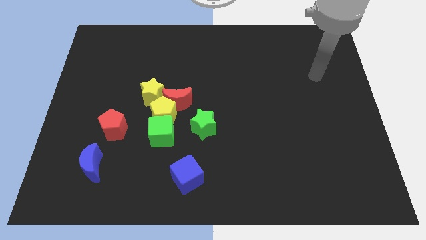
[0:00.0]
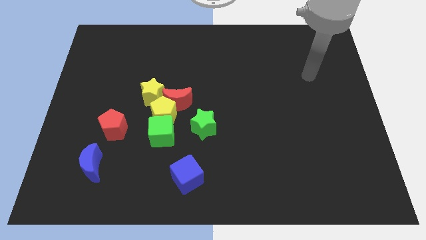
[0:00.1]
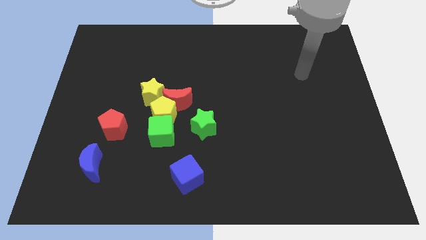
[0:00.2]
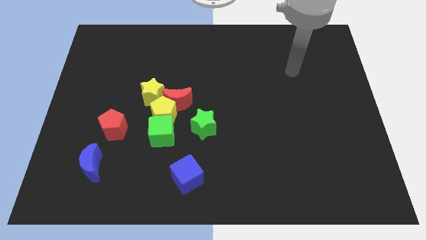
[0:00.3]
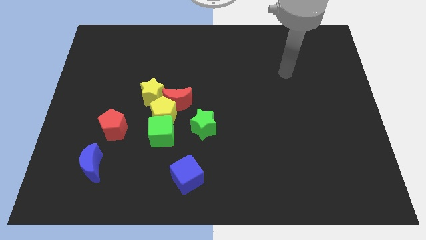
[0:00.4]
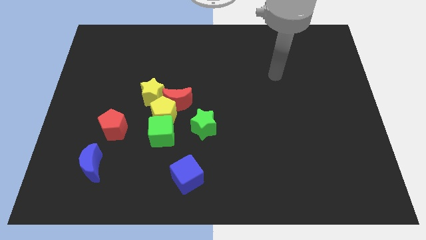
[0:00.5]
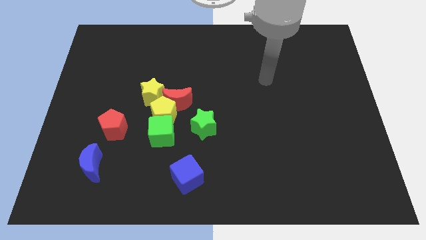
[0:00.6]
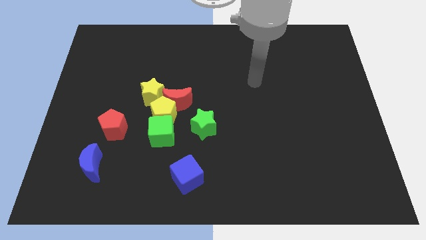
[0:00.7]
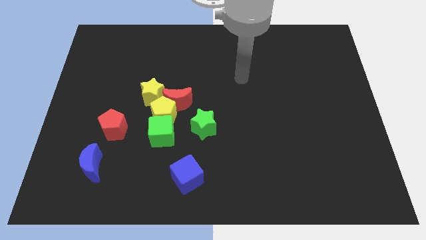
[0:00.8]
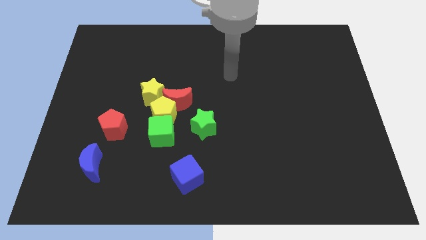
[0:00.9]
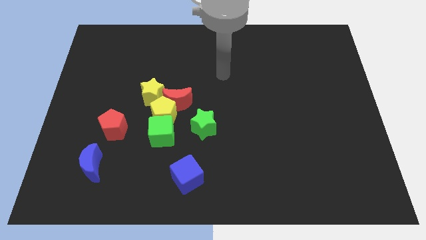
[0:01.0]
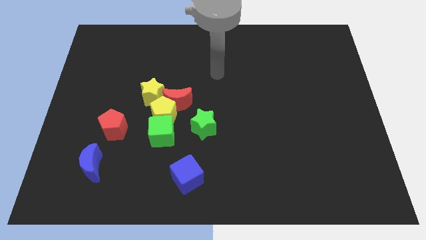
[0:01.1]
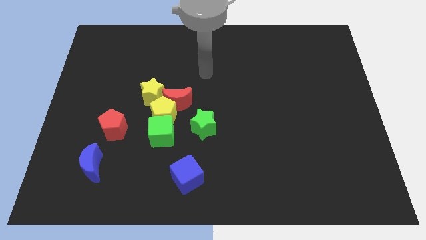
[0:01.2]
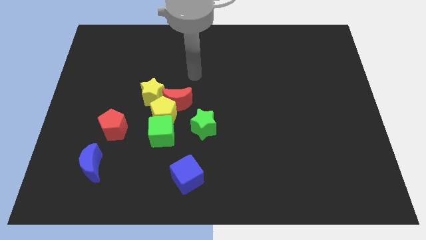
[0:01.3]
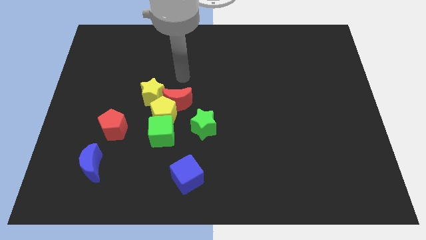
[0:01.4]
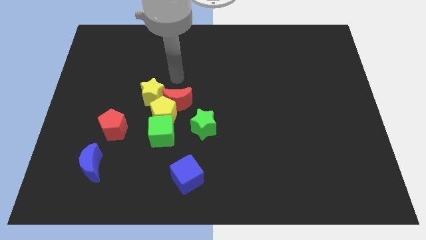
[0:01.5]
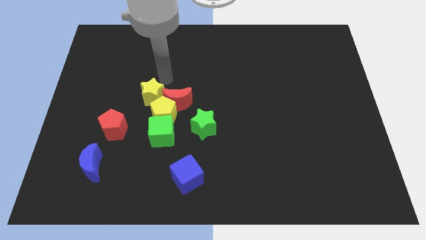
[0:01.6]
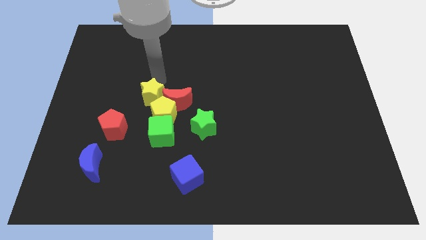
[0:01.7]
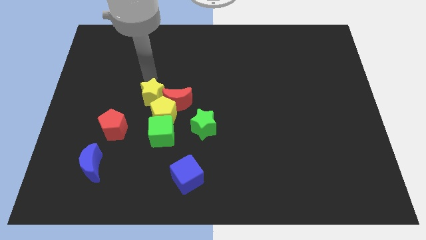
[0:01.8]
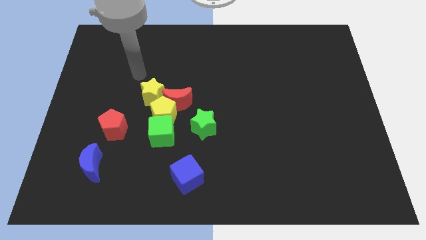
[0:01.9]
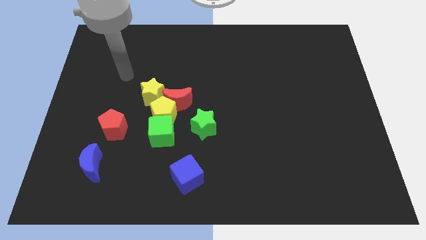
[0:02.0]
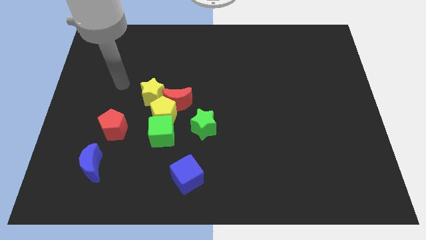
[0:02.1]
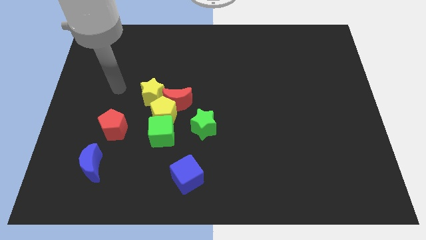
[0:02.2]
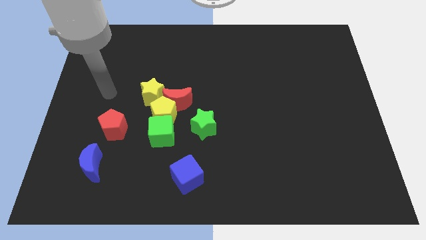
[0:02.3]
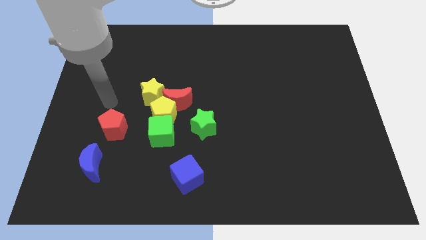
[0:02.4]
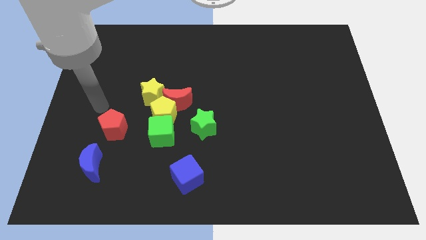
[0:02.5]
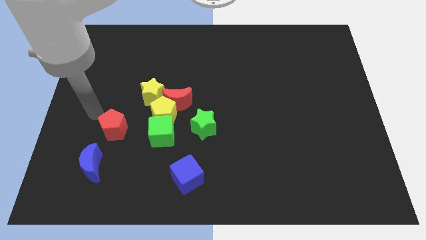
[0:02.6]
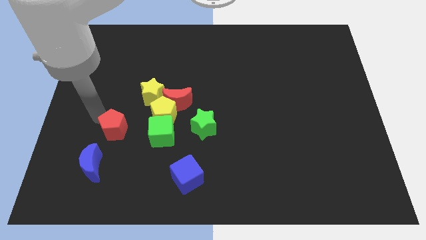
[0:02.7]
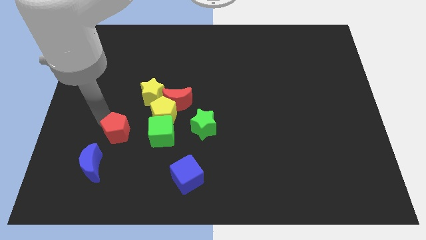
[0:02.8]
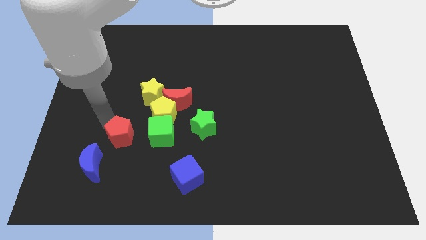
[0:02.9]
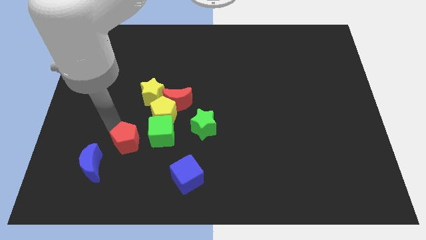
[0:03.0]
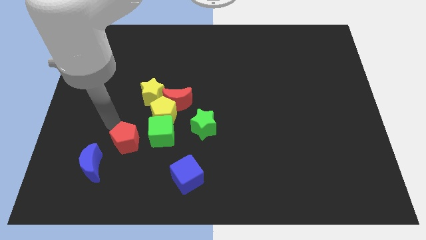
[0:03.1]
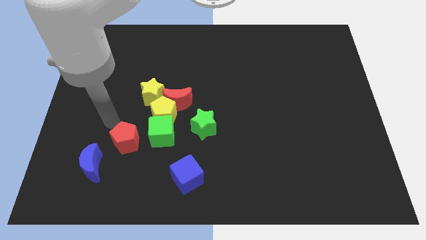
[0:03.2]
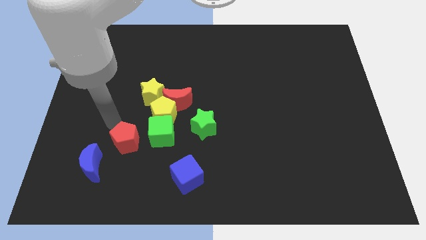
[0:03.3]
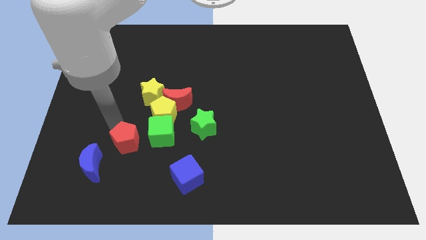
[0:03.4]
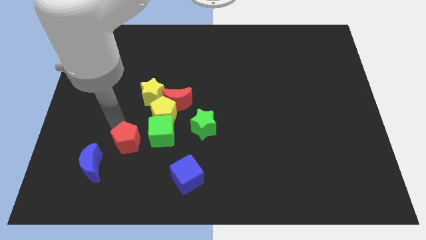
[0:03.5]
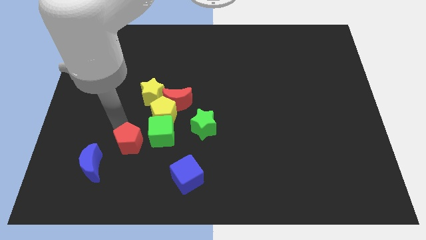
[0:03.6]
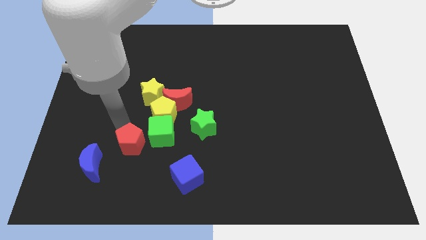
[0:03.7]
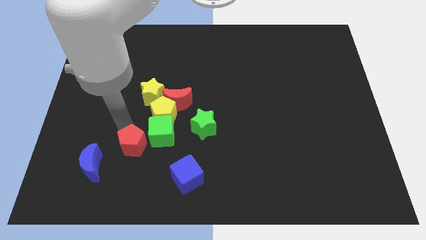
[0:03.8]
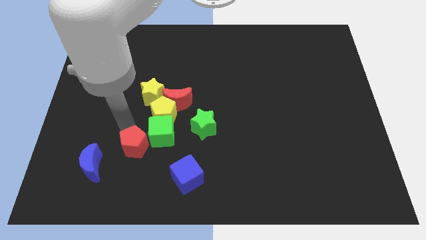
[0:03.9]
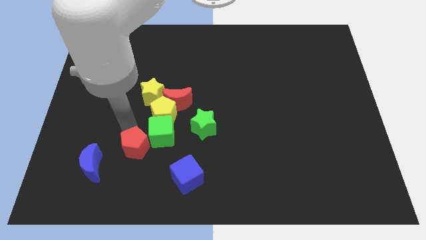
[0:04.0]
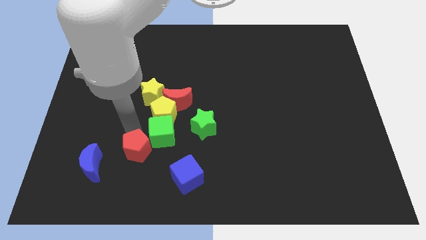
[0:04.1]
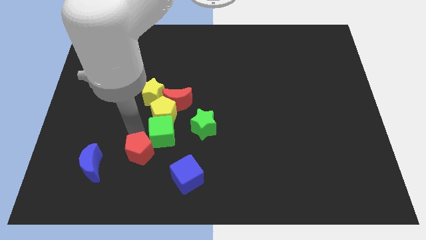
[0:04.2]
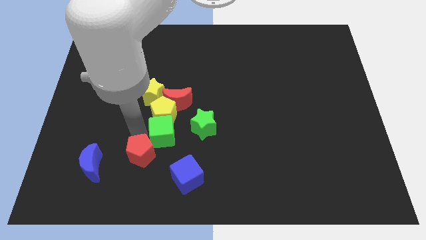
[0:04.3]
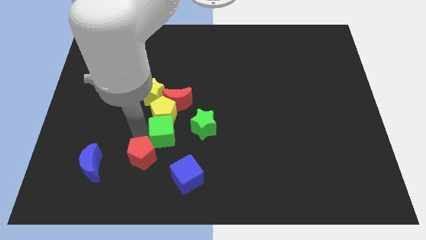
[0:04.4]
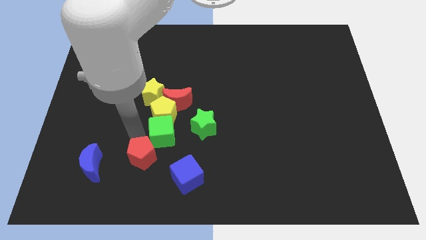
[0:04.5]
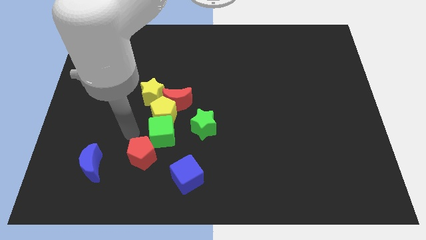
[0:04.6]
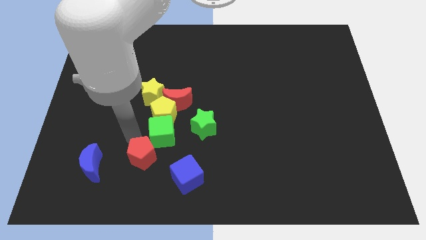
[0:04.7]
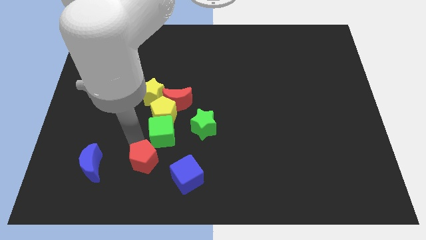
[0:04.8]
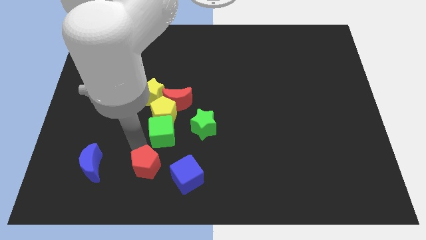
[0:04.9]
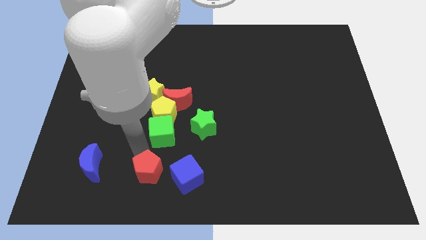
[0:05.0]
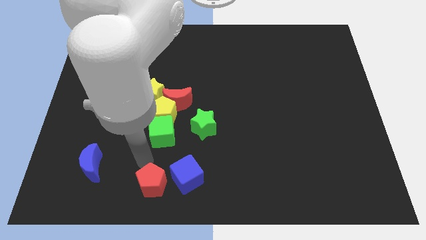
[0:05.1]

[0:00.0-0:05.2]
put the red pentagon to the bottom

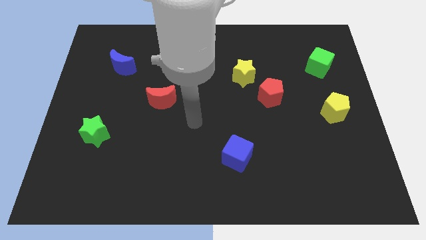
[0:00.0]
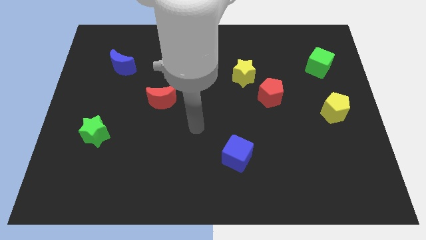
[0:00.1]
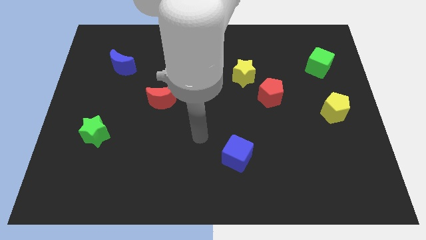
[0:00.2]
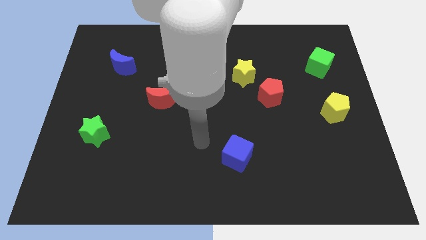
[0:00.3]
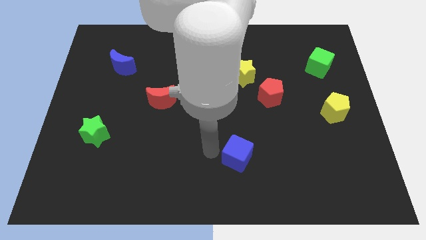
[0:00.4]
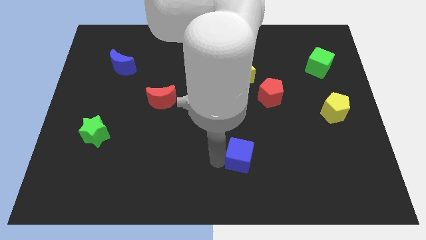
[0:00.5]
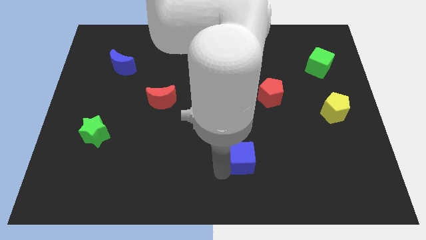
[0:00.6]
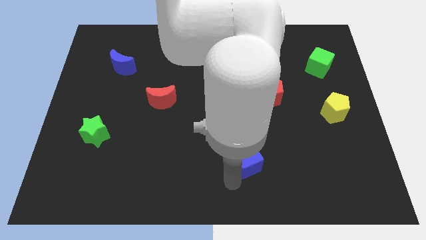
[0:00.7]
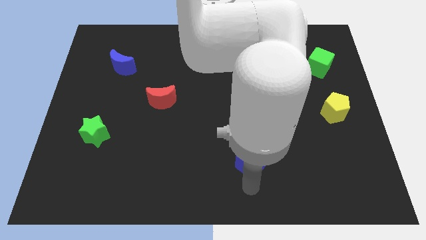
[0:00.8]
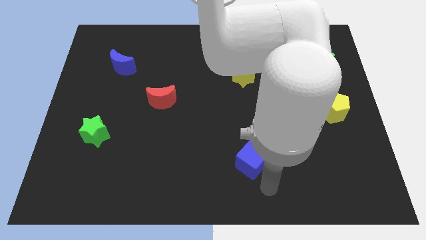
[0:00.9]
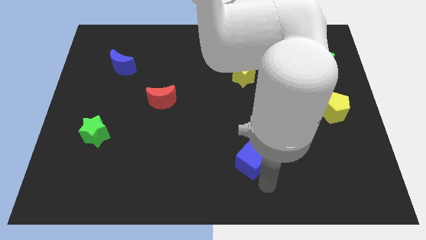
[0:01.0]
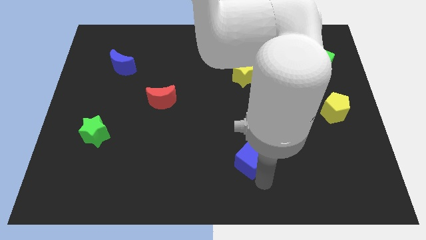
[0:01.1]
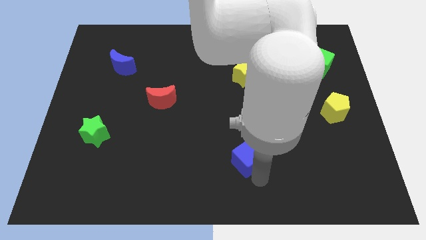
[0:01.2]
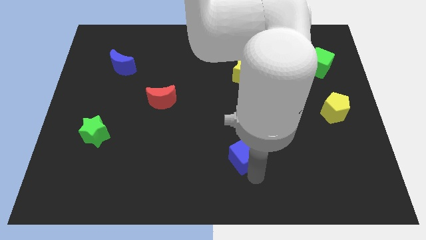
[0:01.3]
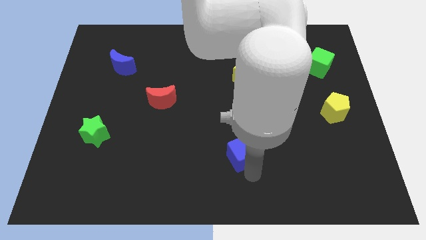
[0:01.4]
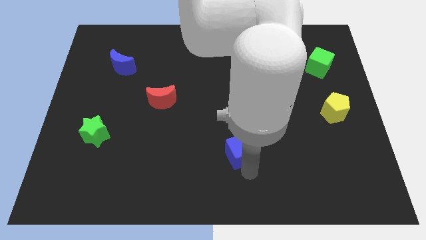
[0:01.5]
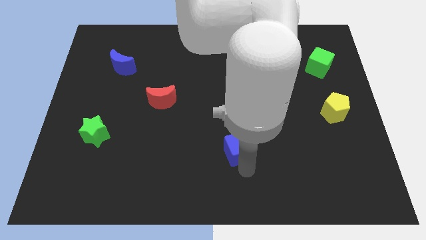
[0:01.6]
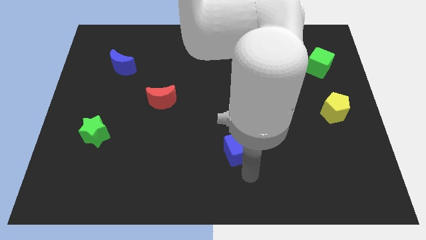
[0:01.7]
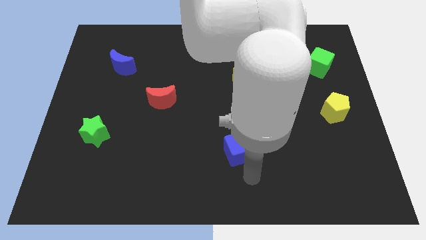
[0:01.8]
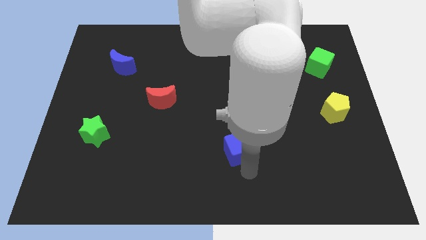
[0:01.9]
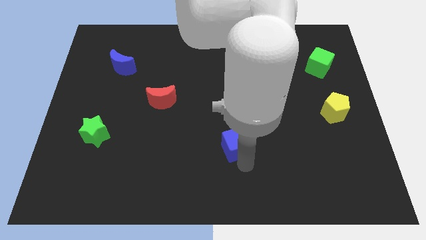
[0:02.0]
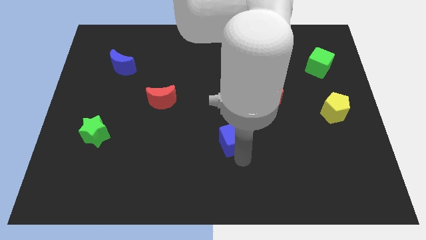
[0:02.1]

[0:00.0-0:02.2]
slide the blue cube to the center
